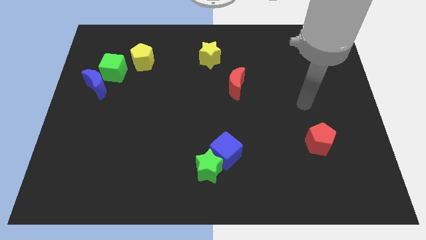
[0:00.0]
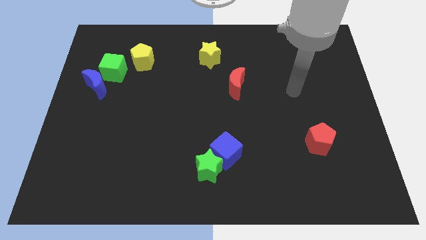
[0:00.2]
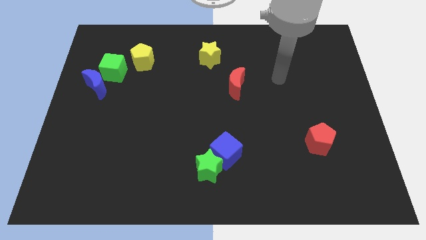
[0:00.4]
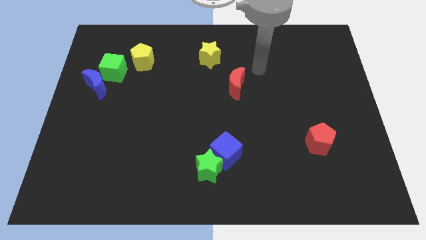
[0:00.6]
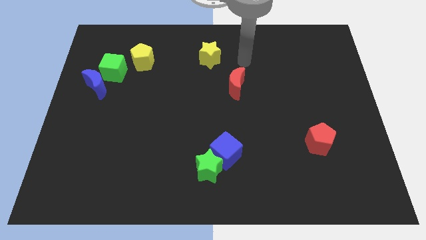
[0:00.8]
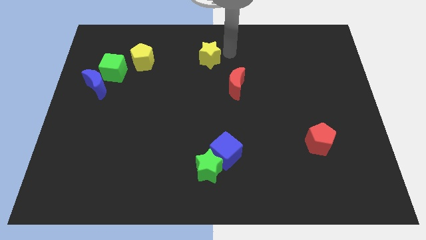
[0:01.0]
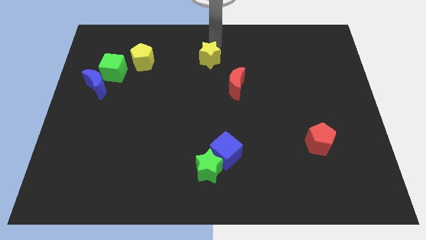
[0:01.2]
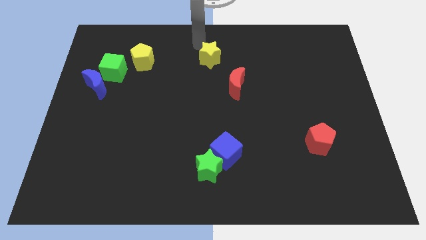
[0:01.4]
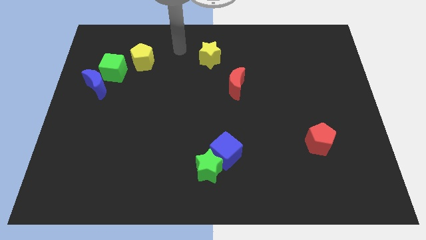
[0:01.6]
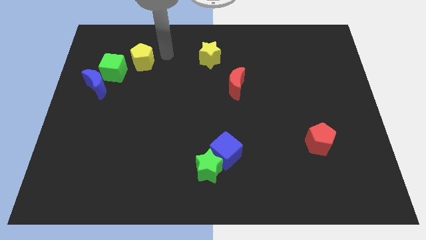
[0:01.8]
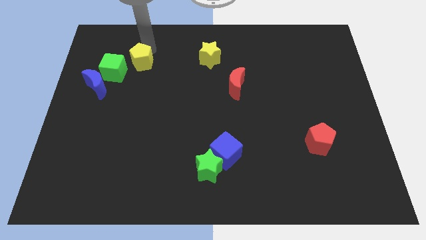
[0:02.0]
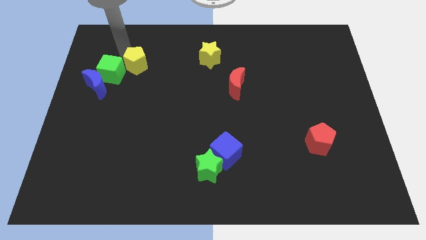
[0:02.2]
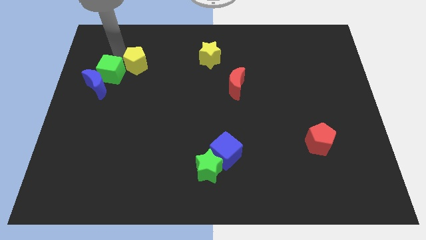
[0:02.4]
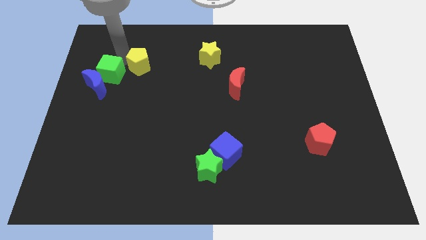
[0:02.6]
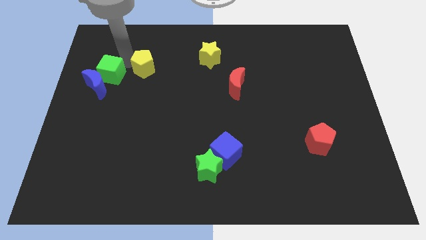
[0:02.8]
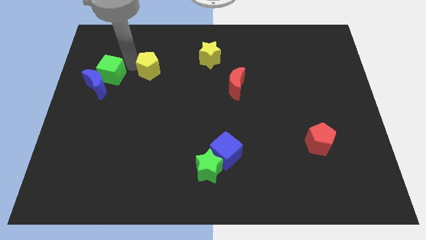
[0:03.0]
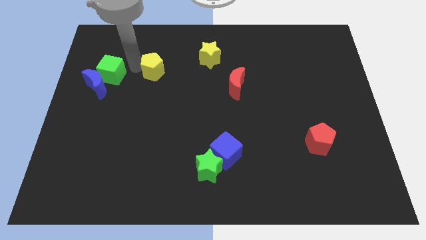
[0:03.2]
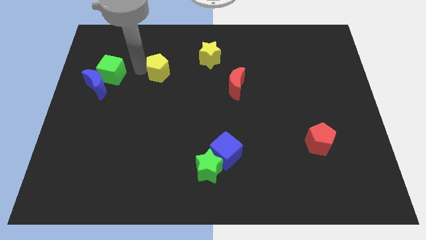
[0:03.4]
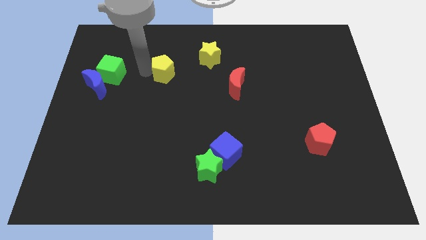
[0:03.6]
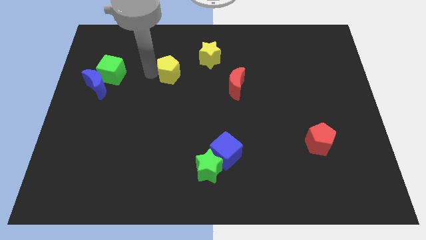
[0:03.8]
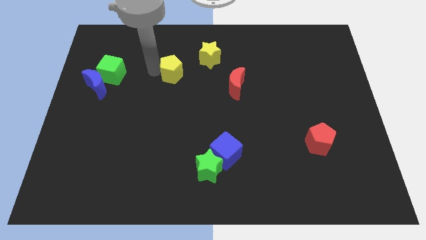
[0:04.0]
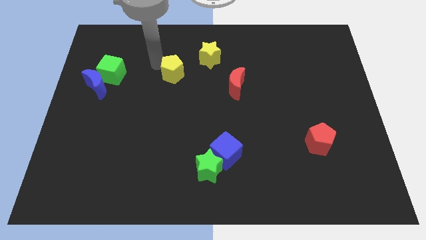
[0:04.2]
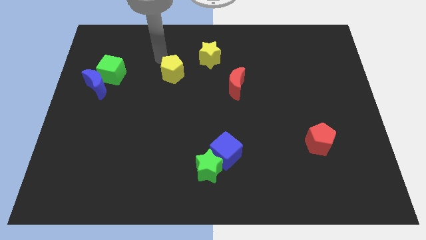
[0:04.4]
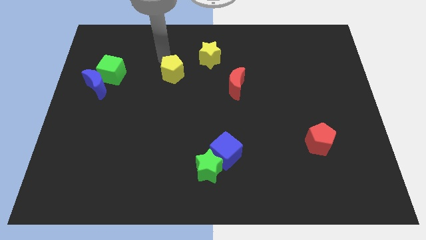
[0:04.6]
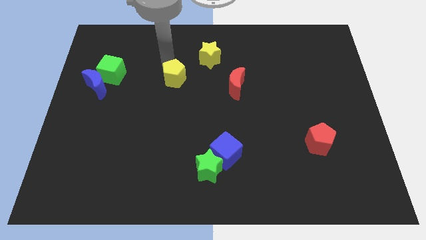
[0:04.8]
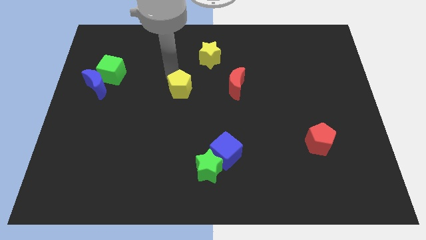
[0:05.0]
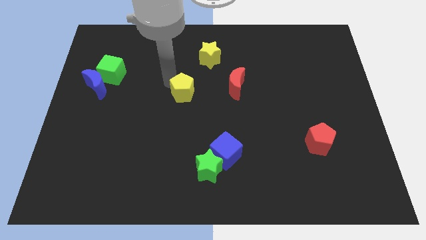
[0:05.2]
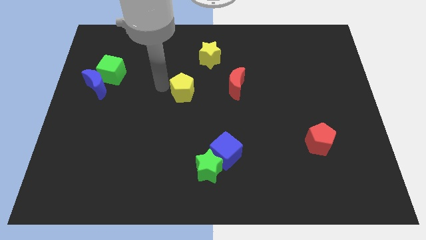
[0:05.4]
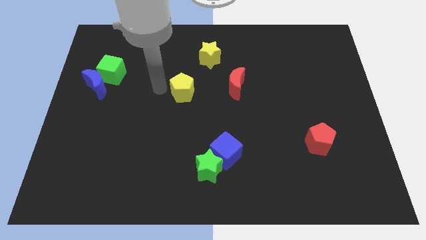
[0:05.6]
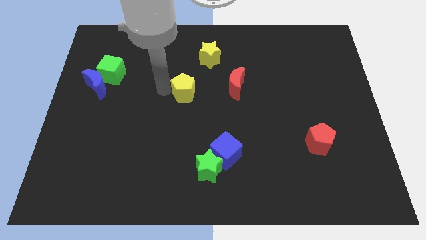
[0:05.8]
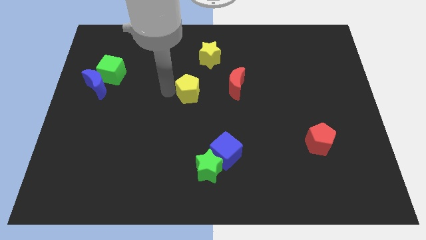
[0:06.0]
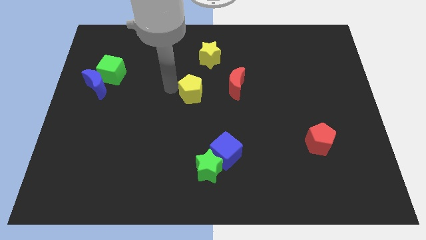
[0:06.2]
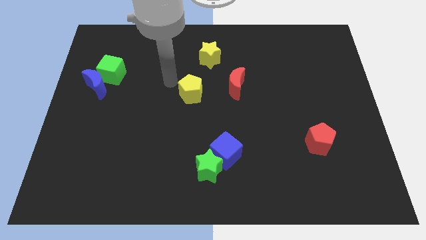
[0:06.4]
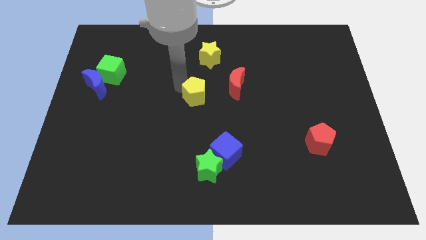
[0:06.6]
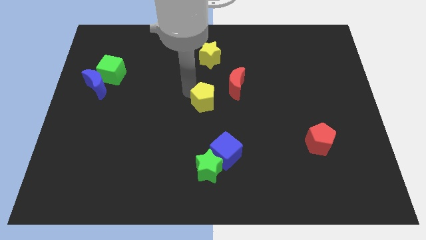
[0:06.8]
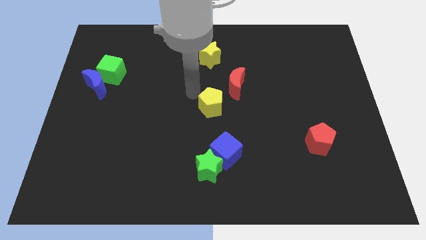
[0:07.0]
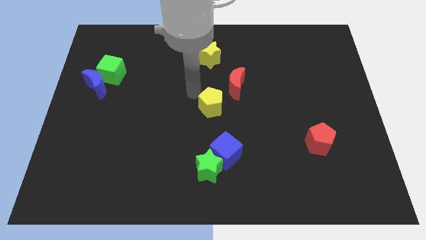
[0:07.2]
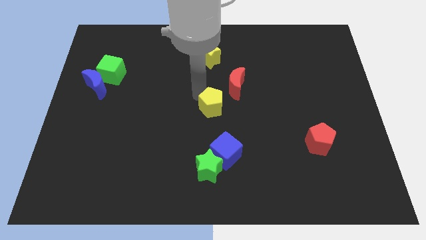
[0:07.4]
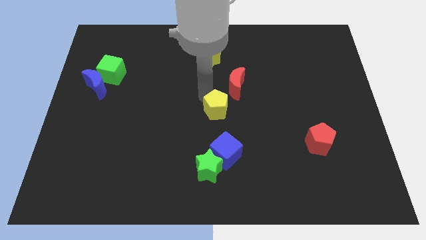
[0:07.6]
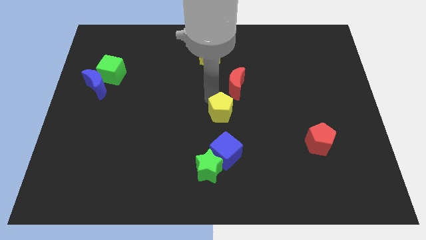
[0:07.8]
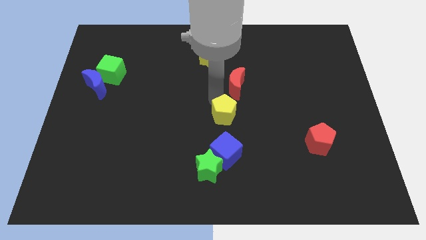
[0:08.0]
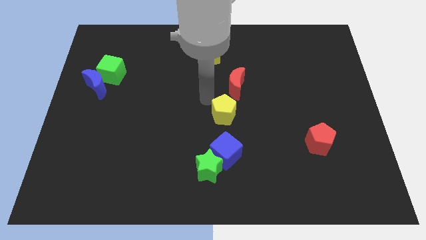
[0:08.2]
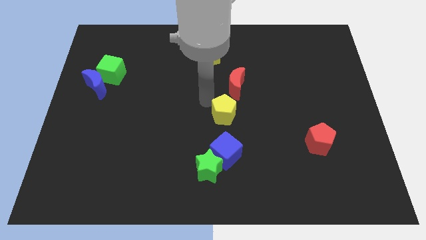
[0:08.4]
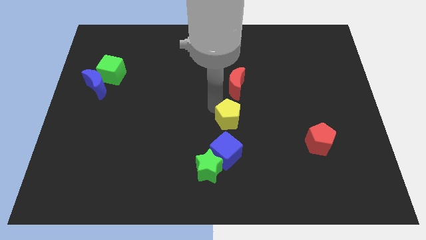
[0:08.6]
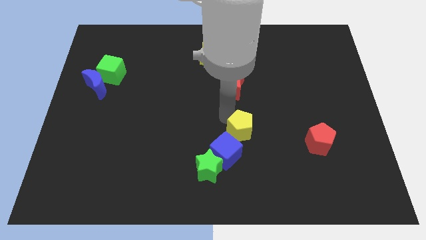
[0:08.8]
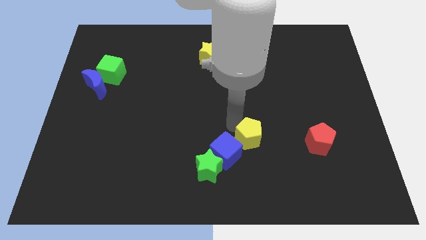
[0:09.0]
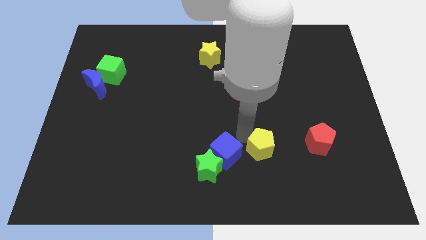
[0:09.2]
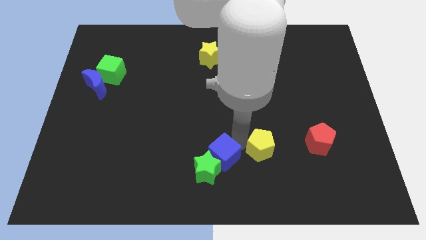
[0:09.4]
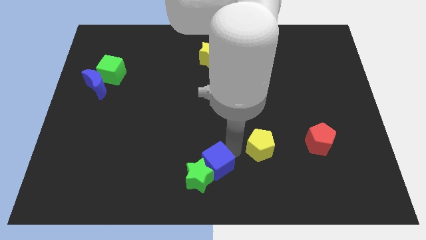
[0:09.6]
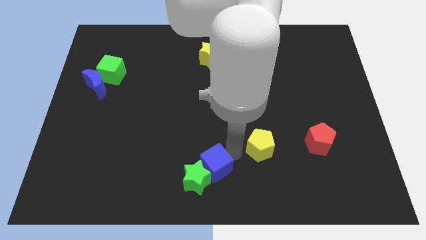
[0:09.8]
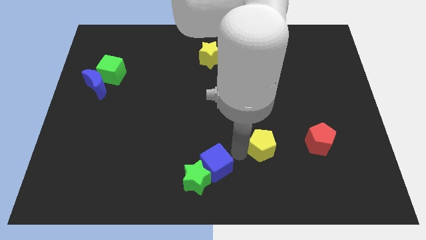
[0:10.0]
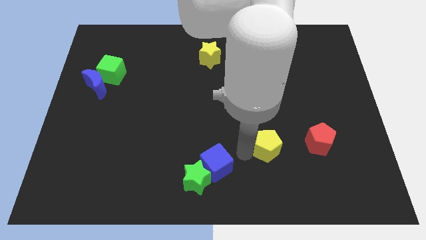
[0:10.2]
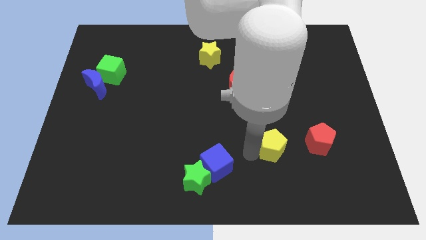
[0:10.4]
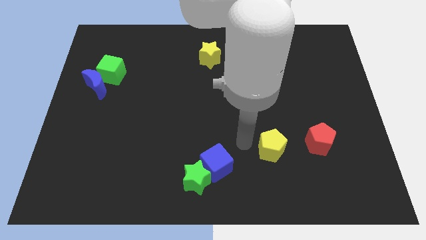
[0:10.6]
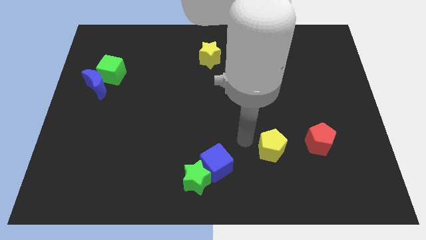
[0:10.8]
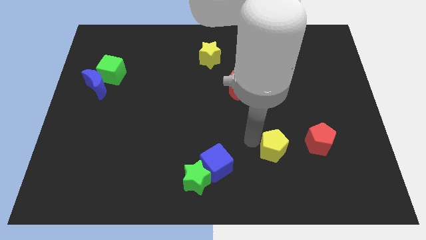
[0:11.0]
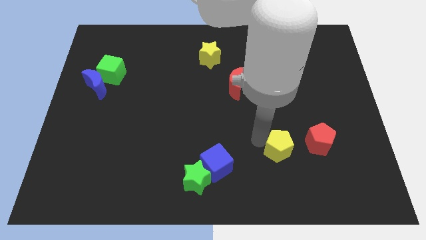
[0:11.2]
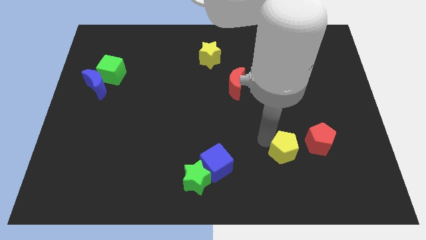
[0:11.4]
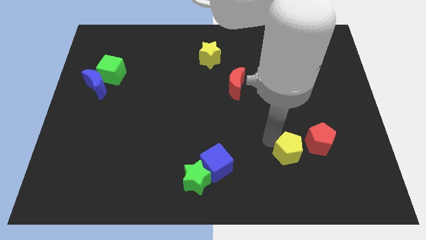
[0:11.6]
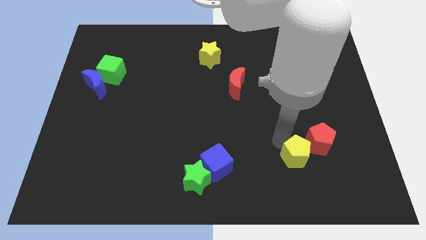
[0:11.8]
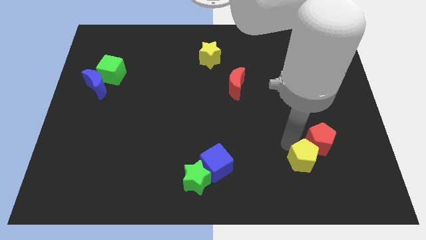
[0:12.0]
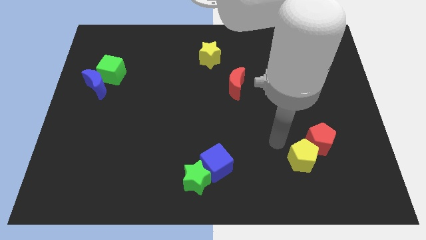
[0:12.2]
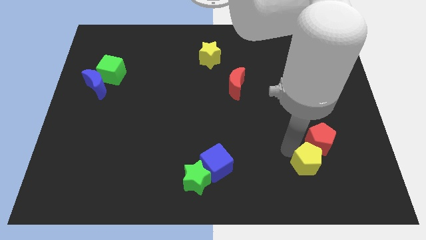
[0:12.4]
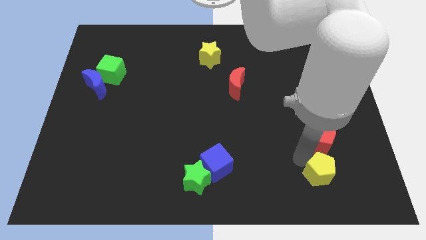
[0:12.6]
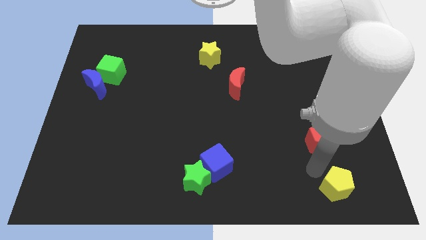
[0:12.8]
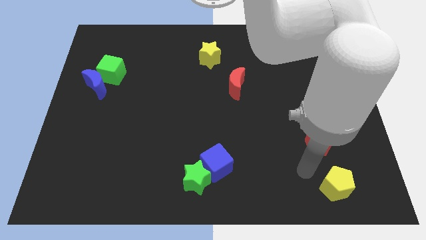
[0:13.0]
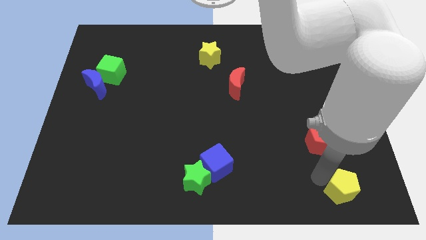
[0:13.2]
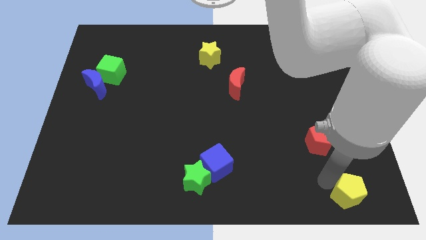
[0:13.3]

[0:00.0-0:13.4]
slide the yellow pentagon to the bottom right of the board
